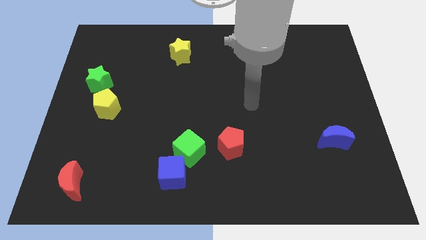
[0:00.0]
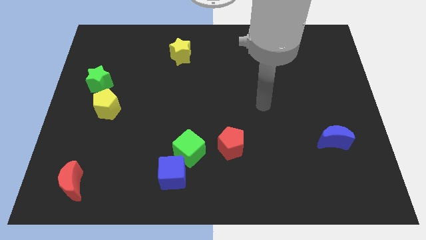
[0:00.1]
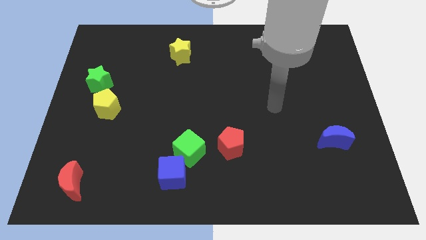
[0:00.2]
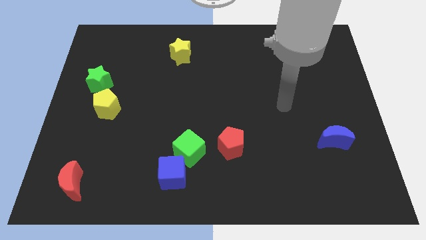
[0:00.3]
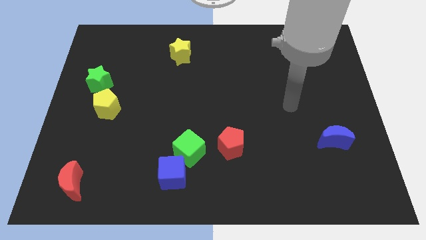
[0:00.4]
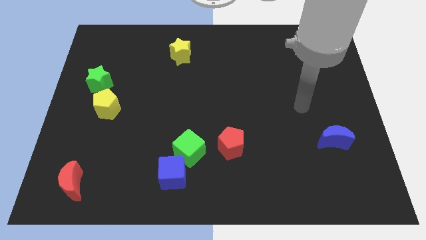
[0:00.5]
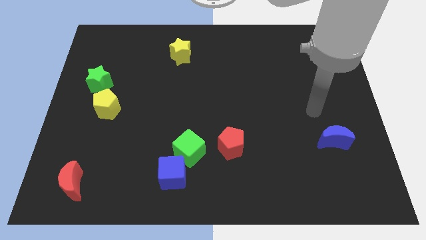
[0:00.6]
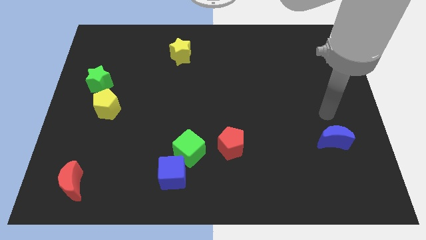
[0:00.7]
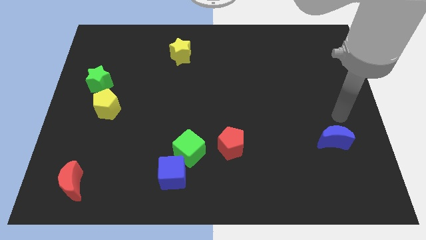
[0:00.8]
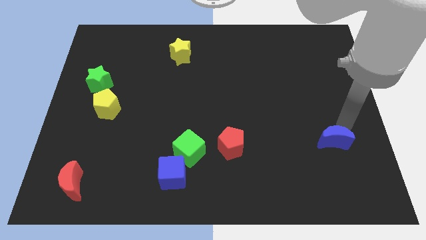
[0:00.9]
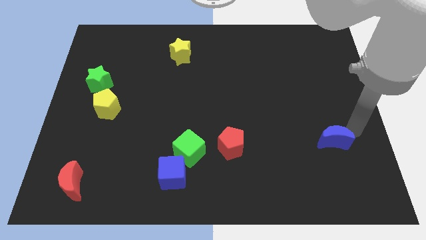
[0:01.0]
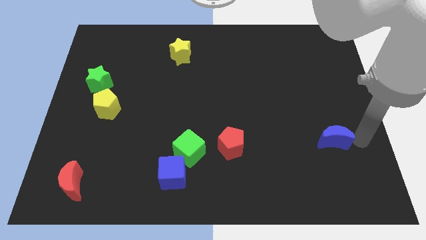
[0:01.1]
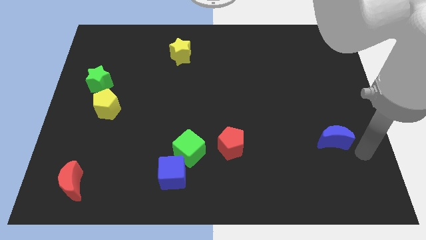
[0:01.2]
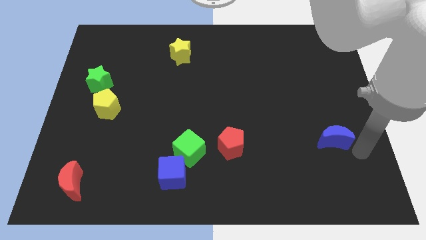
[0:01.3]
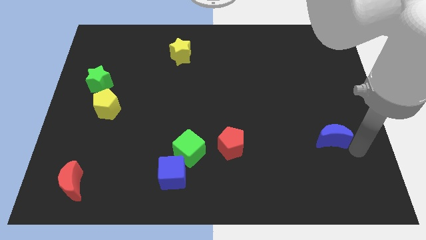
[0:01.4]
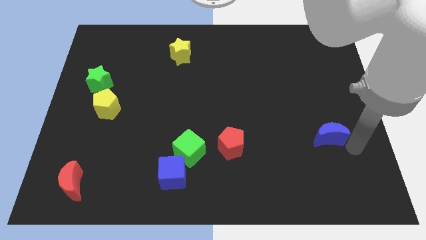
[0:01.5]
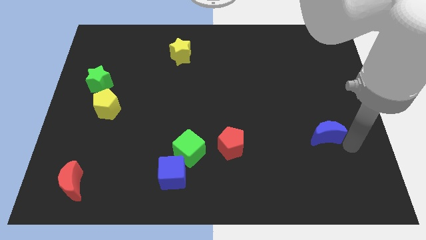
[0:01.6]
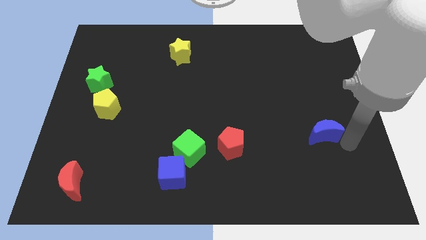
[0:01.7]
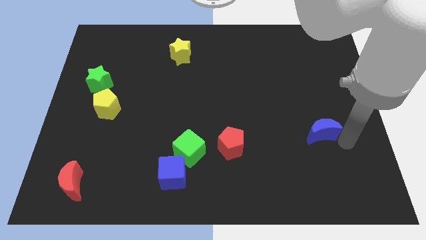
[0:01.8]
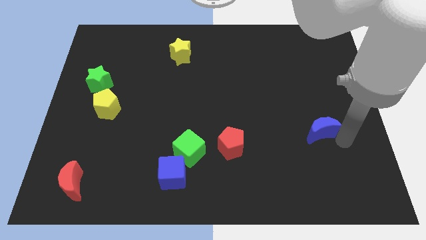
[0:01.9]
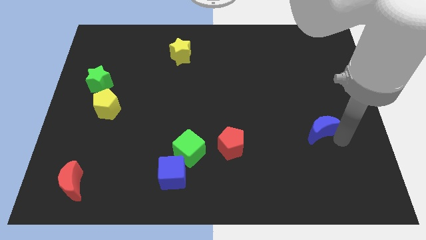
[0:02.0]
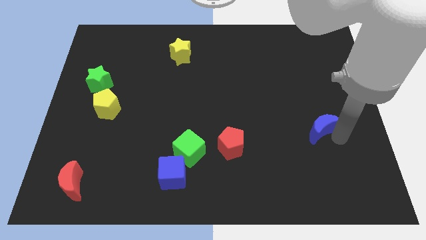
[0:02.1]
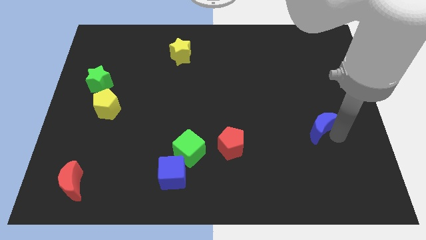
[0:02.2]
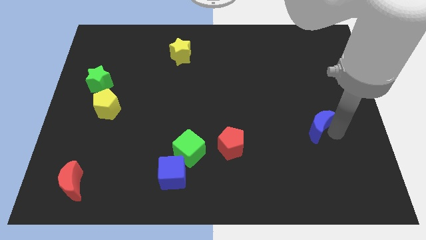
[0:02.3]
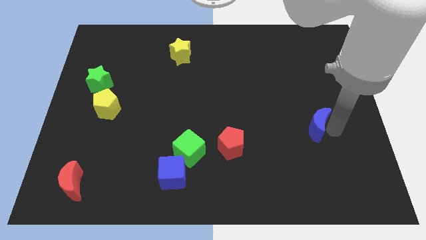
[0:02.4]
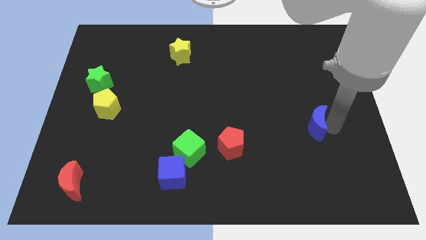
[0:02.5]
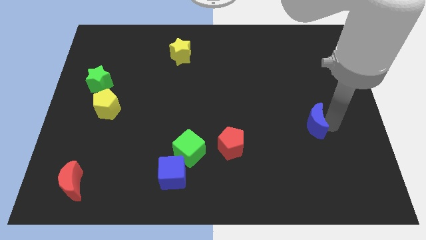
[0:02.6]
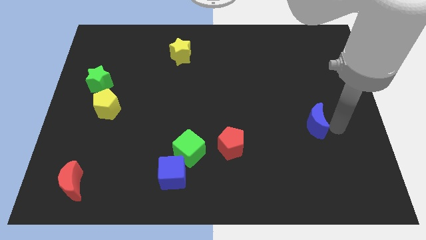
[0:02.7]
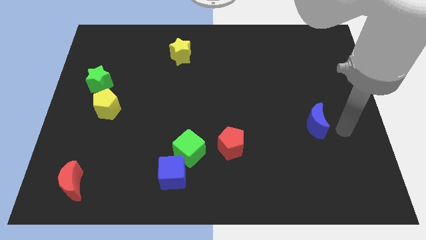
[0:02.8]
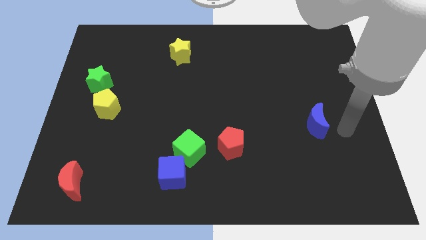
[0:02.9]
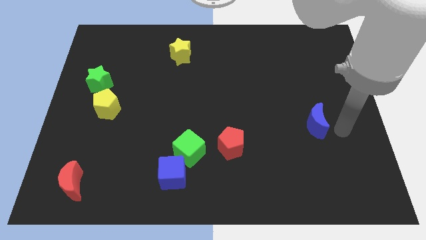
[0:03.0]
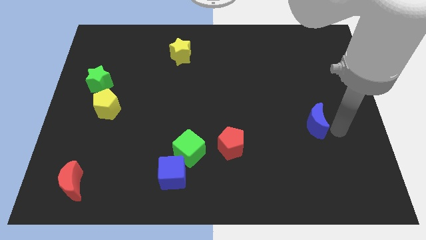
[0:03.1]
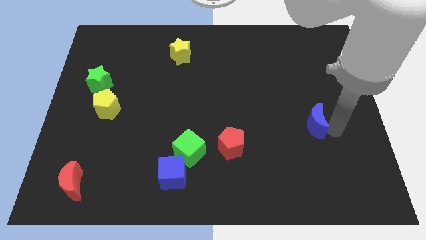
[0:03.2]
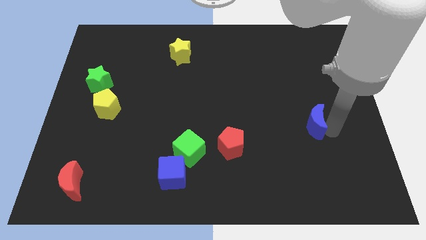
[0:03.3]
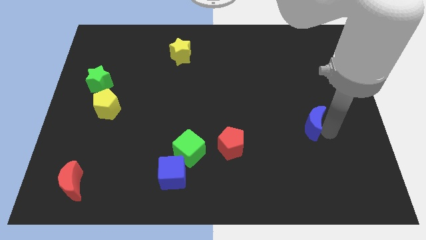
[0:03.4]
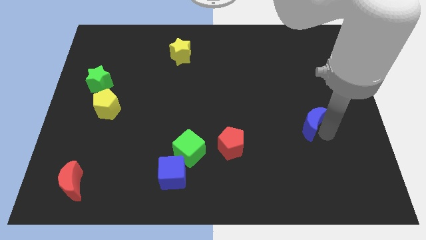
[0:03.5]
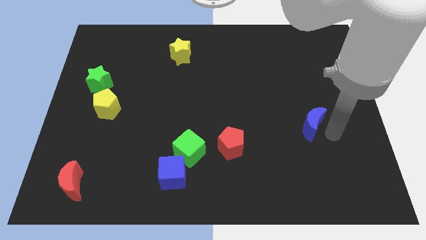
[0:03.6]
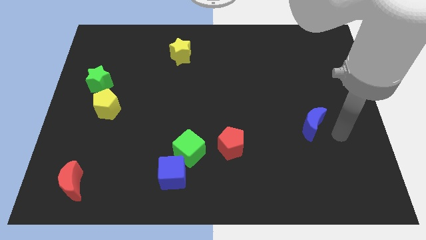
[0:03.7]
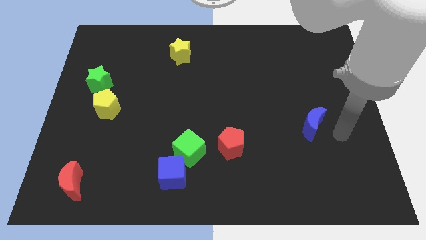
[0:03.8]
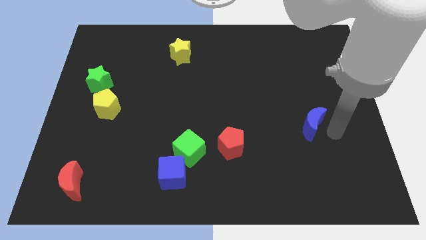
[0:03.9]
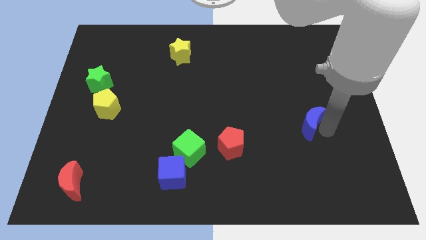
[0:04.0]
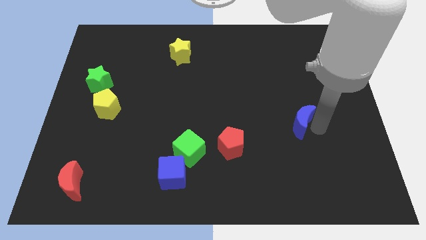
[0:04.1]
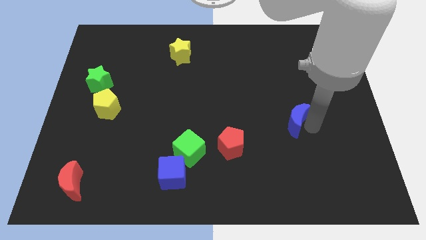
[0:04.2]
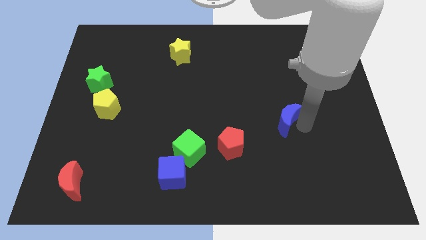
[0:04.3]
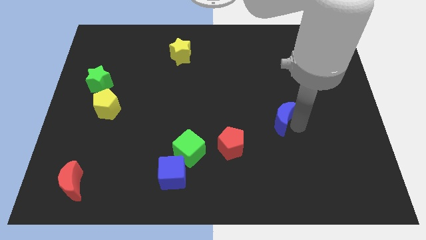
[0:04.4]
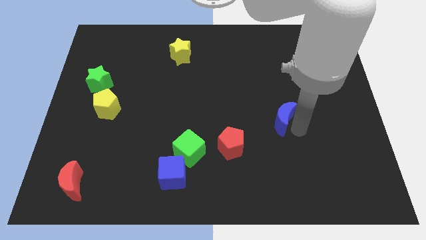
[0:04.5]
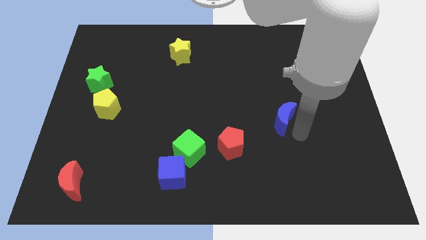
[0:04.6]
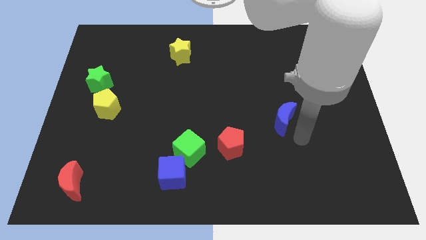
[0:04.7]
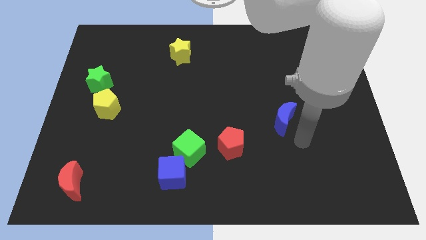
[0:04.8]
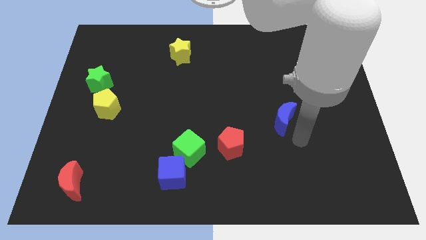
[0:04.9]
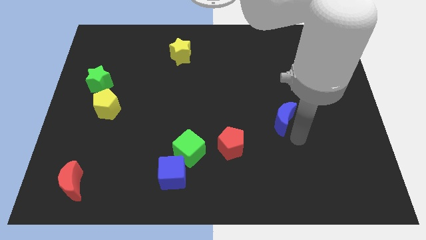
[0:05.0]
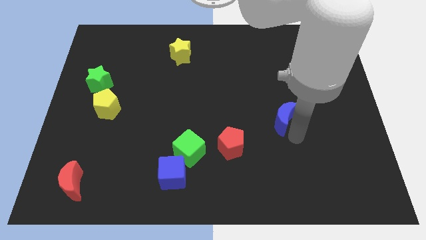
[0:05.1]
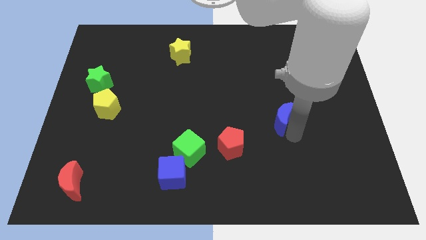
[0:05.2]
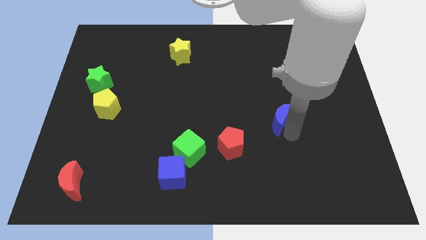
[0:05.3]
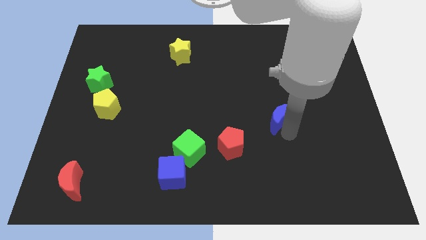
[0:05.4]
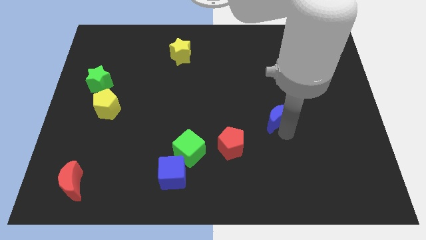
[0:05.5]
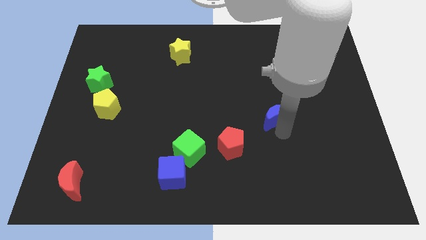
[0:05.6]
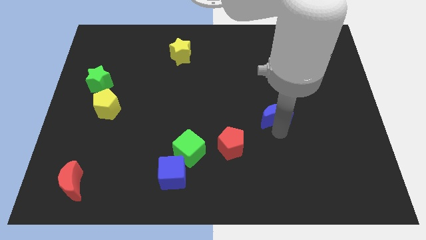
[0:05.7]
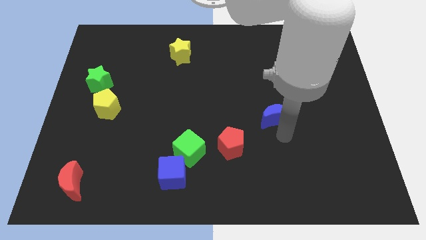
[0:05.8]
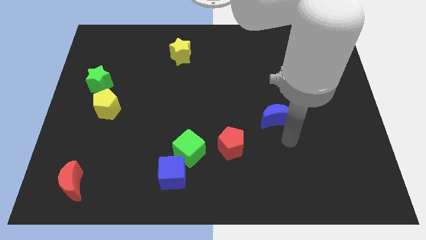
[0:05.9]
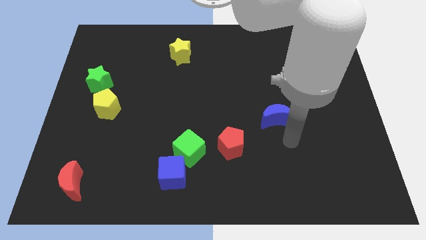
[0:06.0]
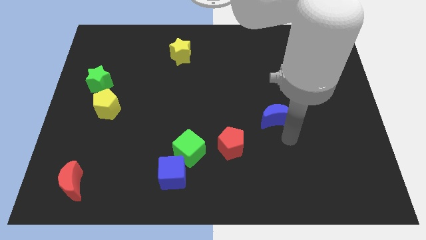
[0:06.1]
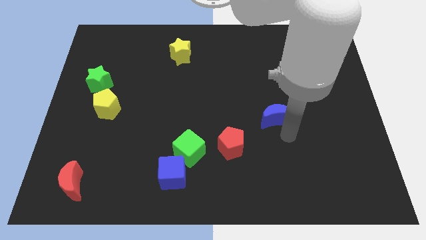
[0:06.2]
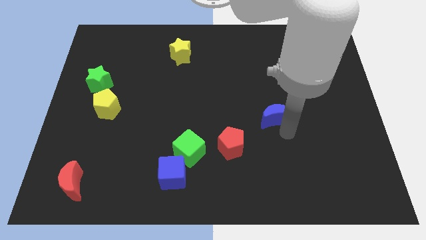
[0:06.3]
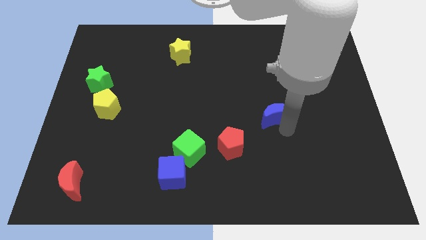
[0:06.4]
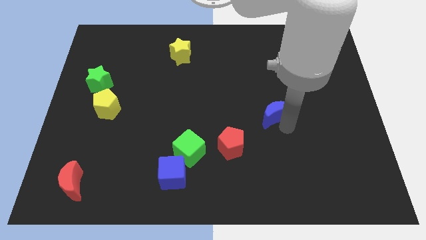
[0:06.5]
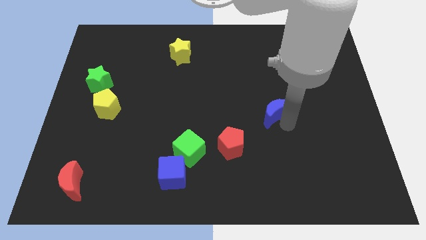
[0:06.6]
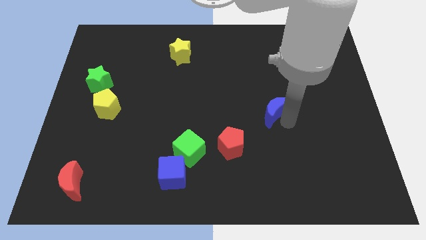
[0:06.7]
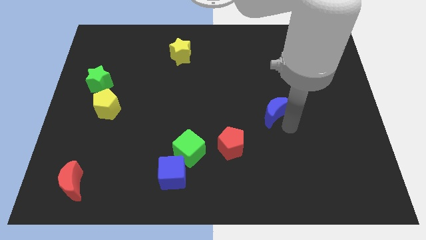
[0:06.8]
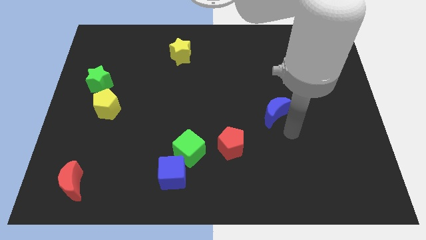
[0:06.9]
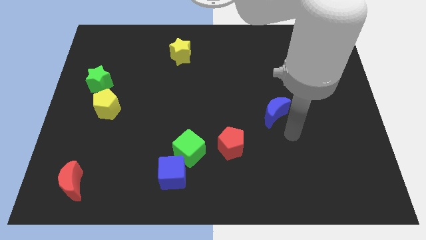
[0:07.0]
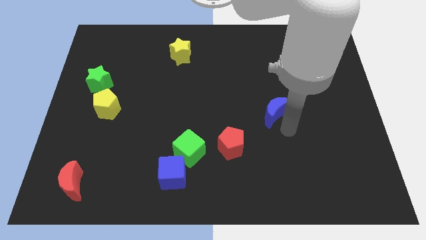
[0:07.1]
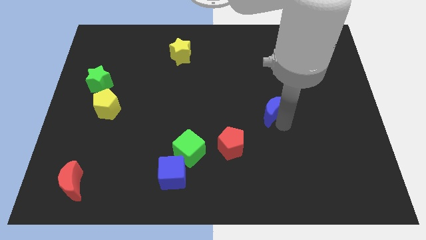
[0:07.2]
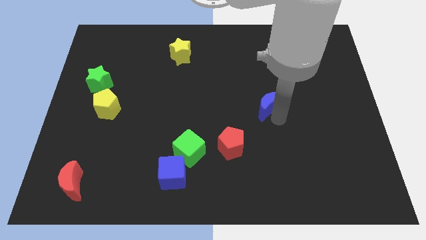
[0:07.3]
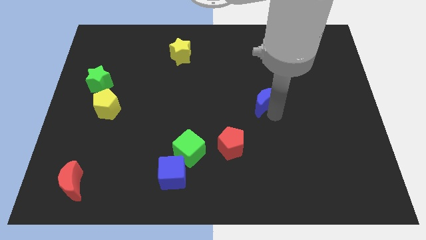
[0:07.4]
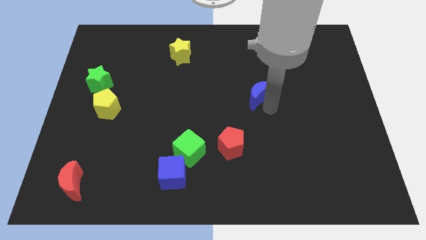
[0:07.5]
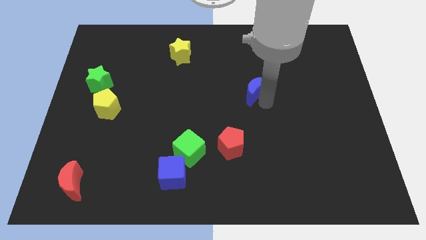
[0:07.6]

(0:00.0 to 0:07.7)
push the blue moon diagonally upwards and left

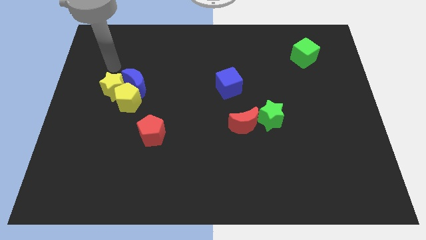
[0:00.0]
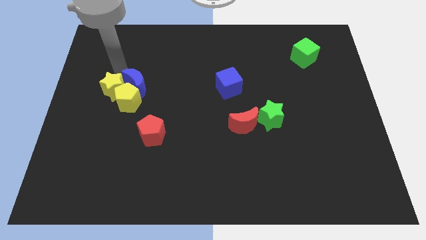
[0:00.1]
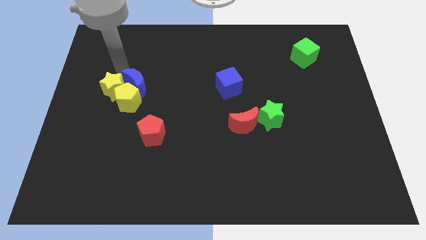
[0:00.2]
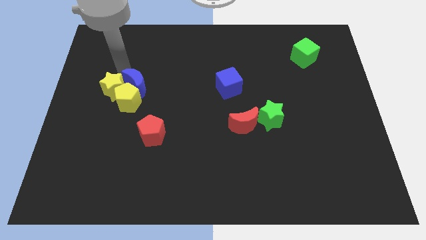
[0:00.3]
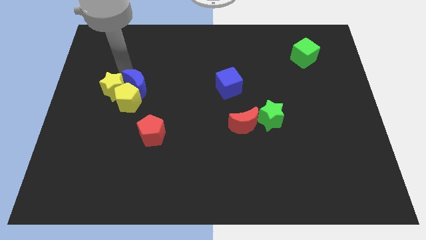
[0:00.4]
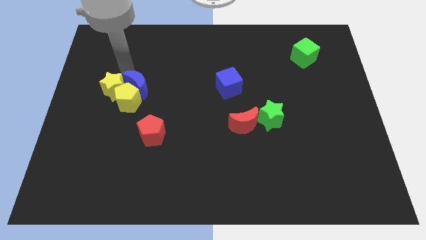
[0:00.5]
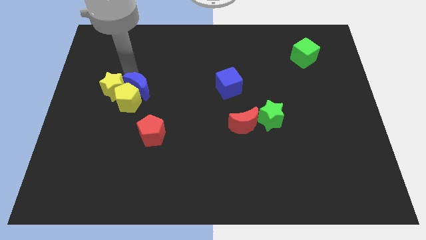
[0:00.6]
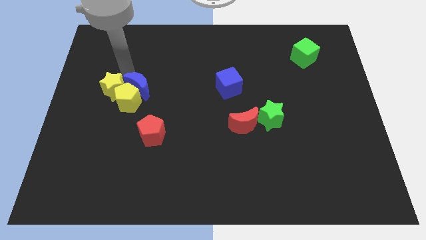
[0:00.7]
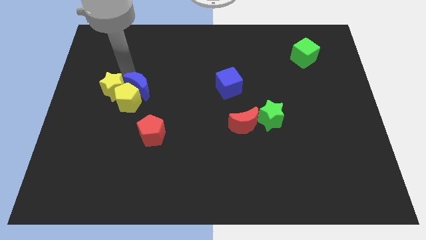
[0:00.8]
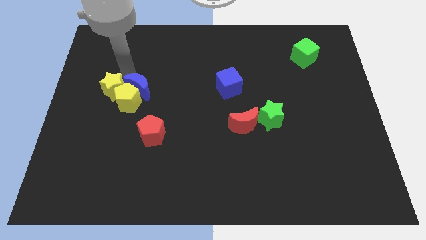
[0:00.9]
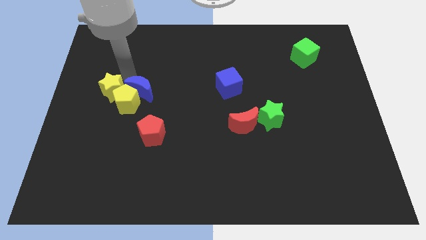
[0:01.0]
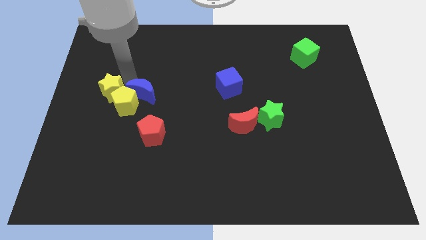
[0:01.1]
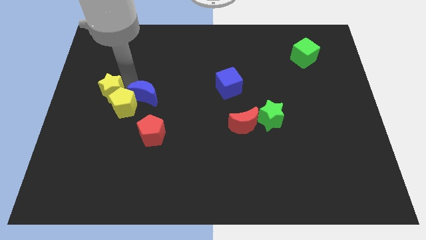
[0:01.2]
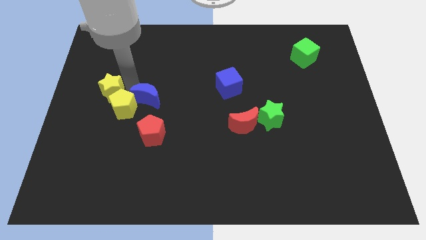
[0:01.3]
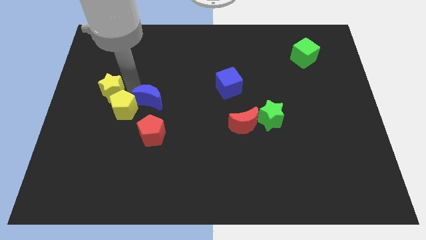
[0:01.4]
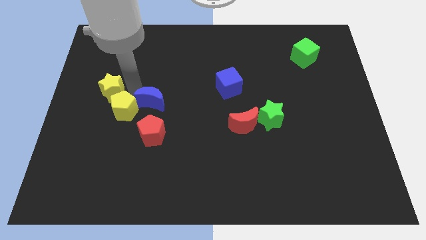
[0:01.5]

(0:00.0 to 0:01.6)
move the blue moon downwards and right diagonally a little bit
